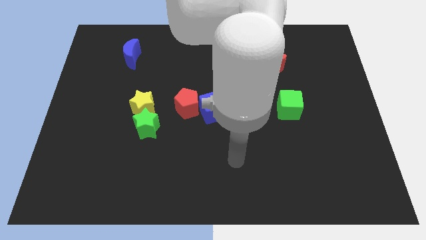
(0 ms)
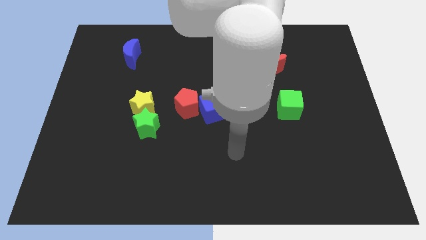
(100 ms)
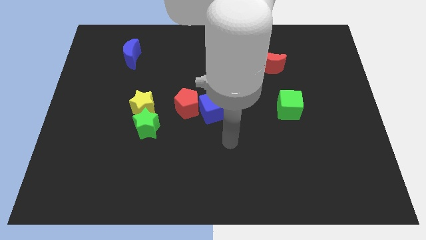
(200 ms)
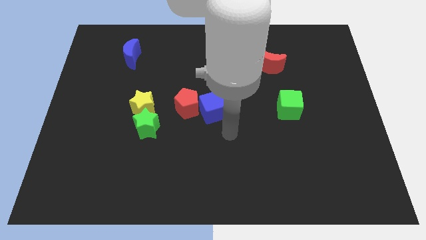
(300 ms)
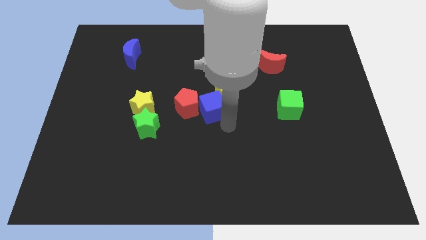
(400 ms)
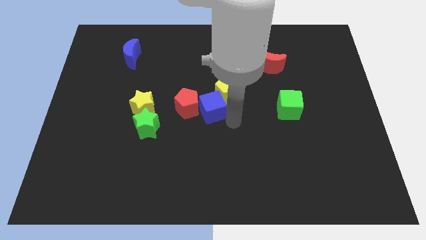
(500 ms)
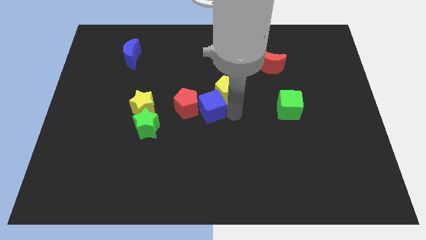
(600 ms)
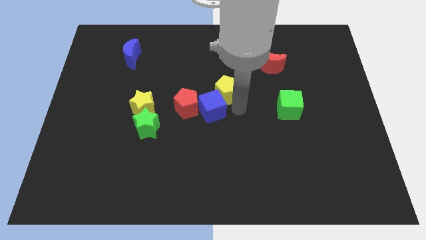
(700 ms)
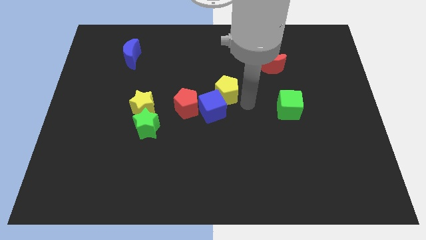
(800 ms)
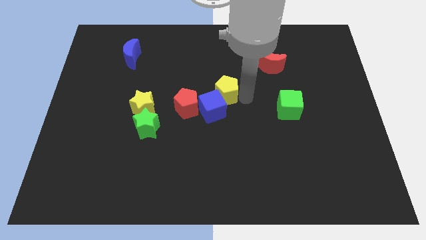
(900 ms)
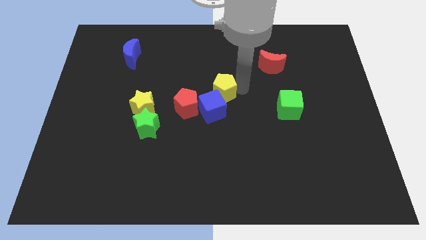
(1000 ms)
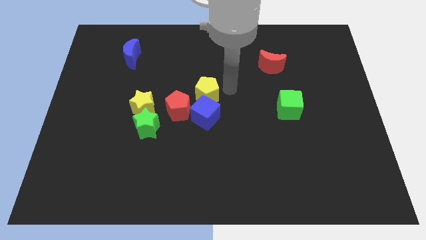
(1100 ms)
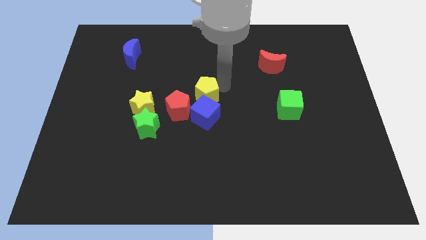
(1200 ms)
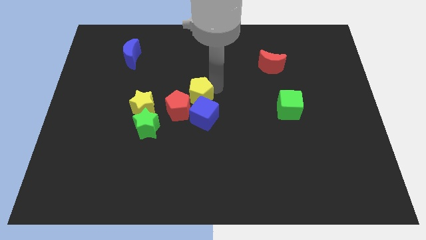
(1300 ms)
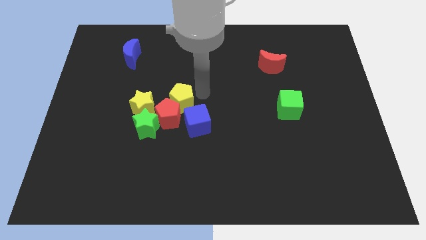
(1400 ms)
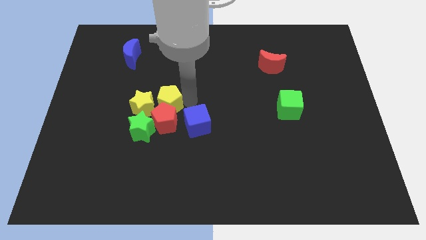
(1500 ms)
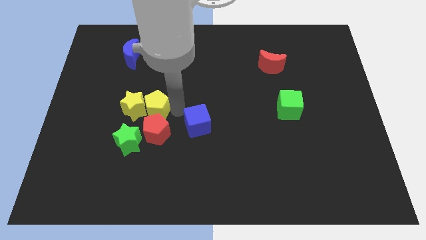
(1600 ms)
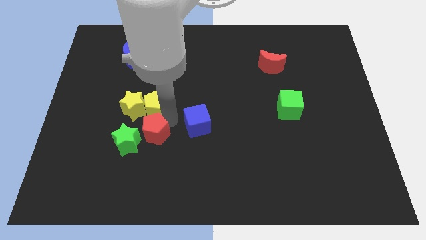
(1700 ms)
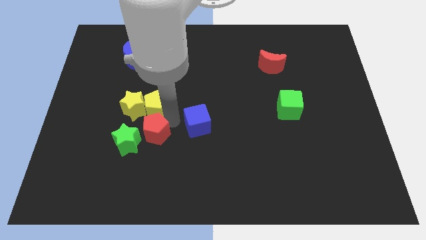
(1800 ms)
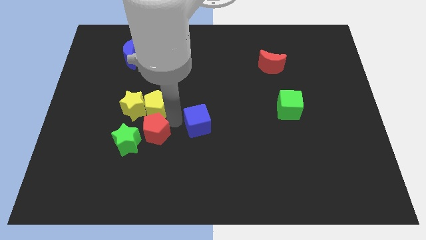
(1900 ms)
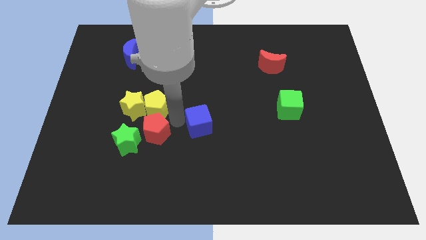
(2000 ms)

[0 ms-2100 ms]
pull the blue cube apart from the yellow pentagon and red pentagon

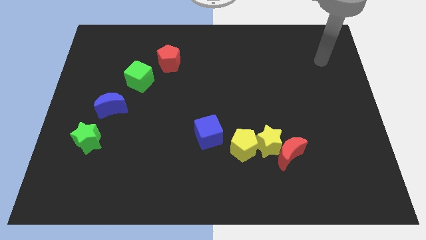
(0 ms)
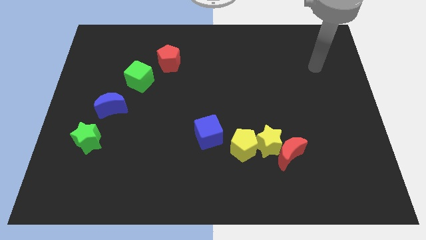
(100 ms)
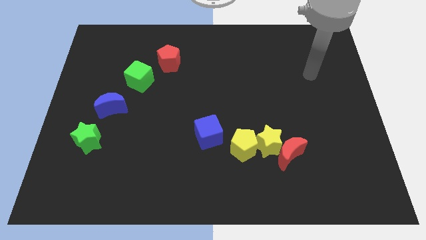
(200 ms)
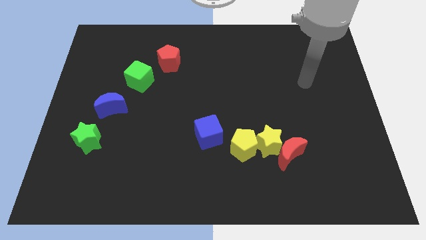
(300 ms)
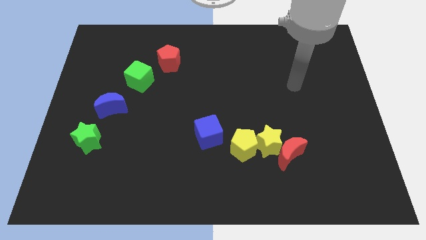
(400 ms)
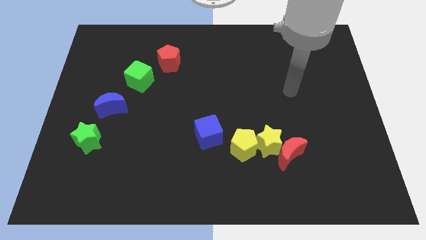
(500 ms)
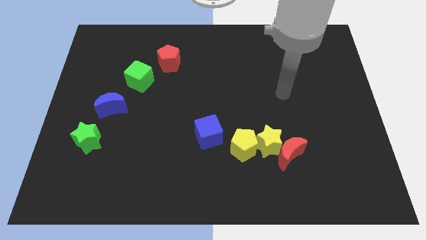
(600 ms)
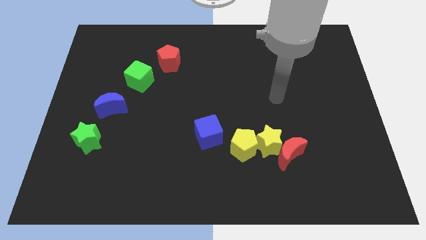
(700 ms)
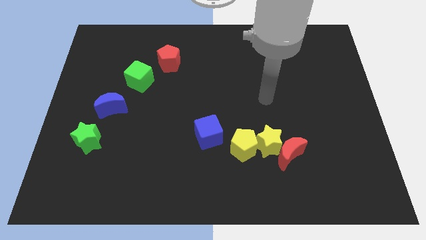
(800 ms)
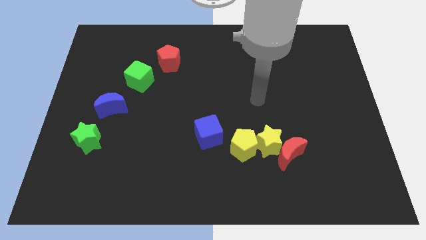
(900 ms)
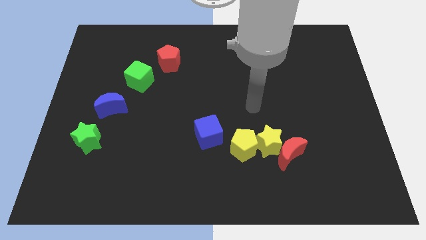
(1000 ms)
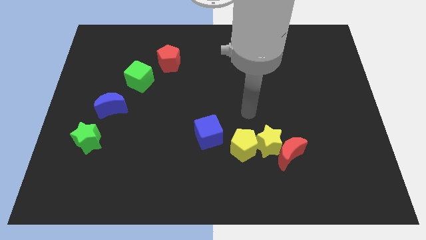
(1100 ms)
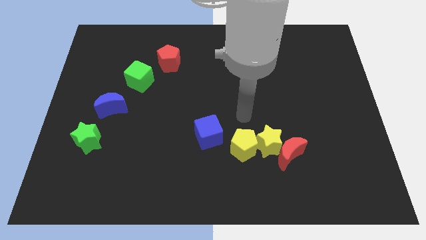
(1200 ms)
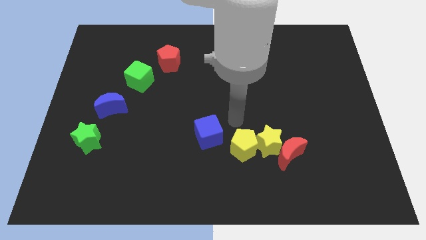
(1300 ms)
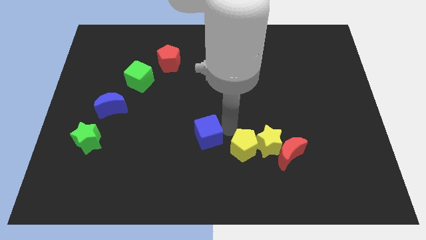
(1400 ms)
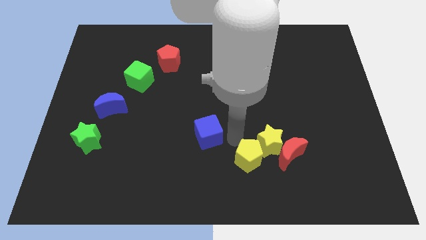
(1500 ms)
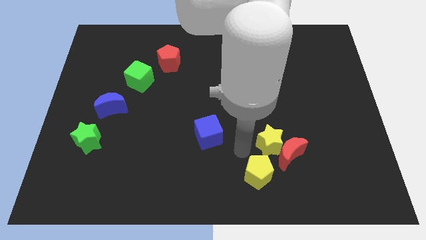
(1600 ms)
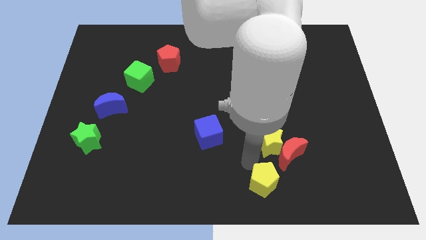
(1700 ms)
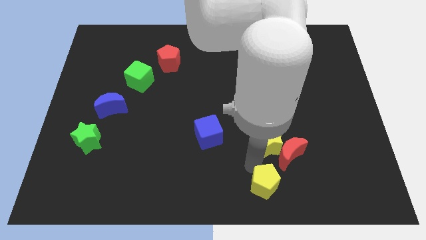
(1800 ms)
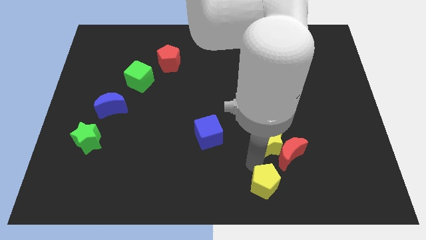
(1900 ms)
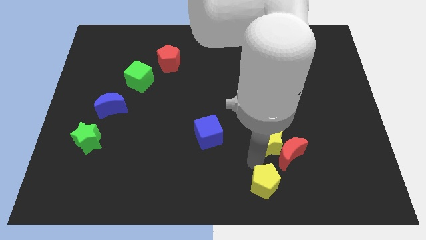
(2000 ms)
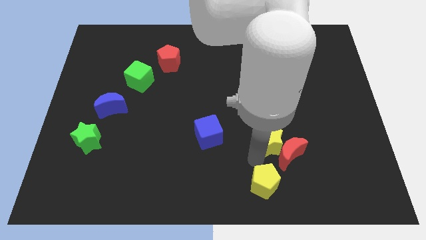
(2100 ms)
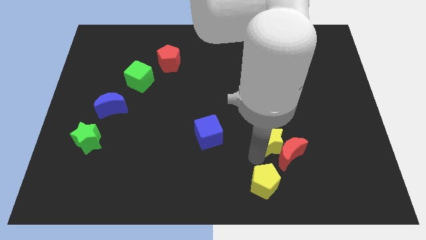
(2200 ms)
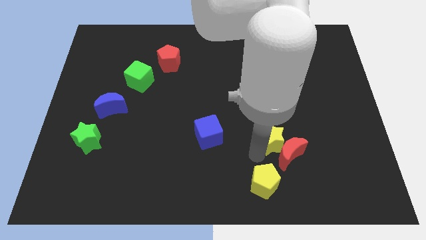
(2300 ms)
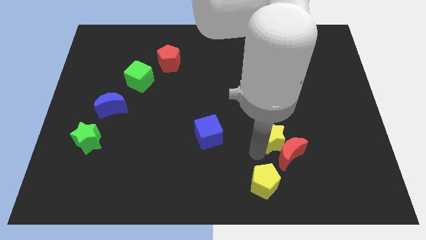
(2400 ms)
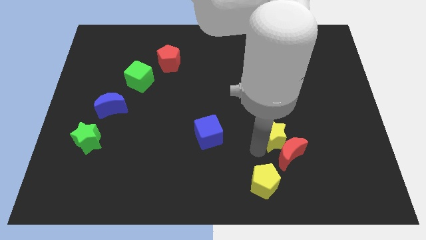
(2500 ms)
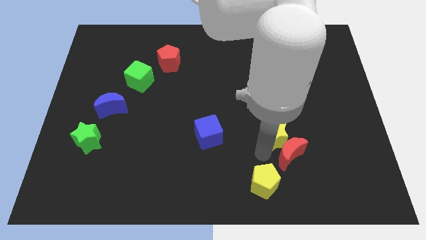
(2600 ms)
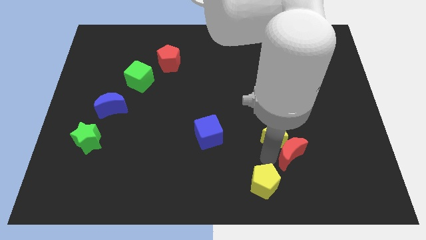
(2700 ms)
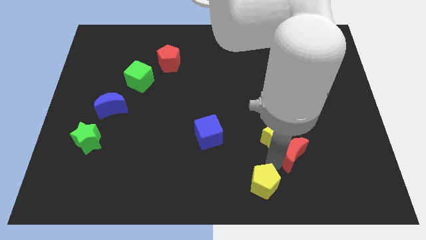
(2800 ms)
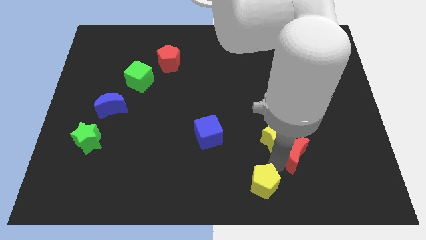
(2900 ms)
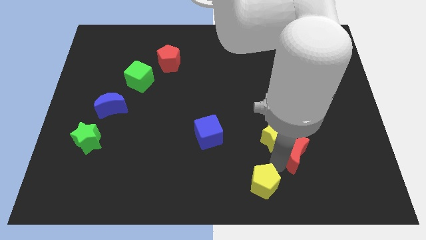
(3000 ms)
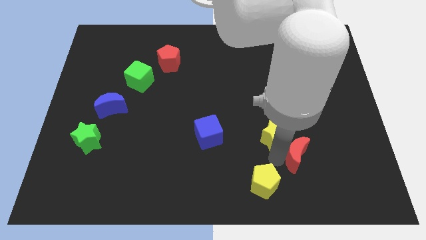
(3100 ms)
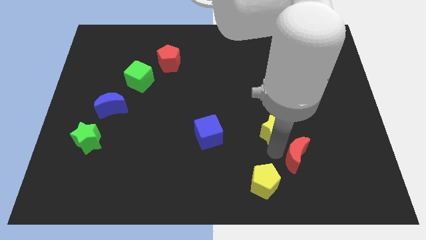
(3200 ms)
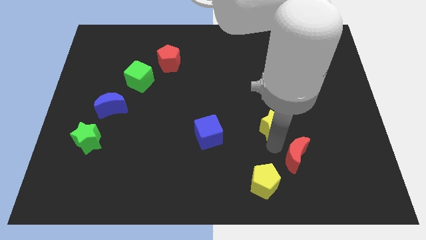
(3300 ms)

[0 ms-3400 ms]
pull the yellow star apart from the red moon and yellow pentagon

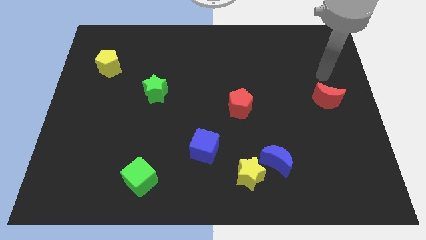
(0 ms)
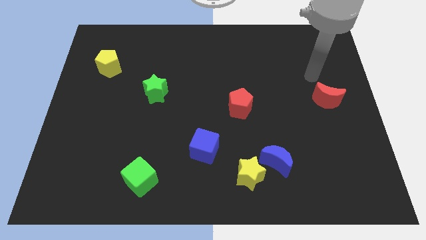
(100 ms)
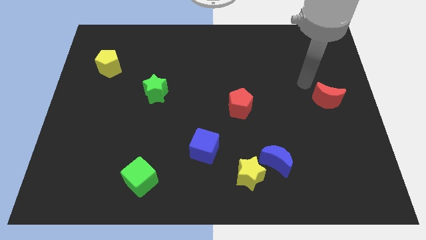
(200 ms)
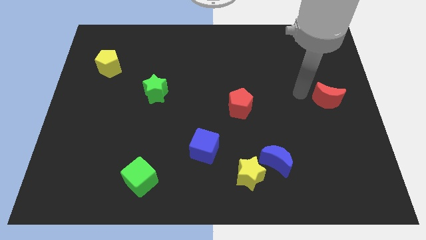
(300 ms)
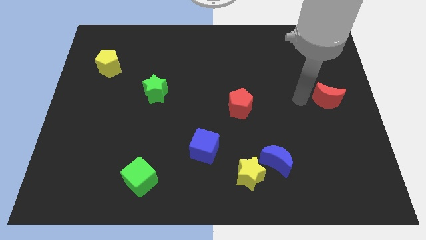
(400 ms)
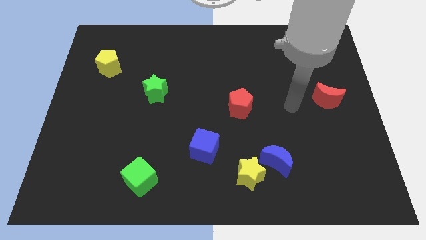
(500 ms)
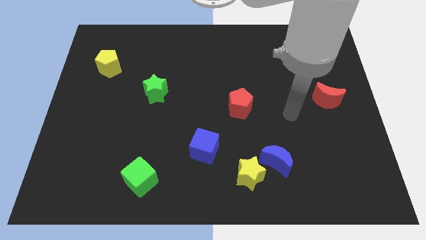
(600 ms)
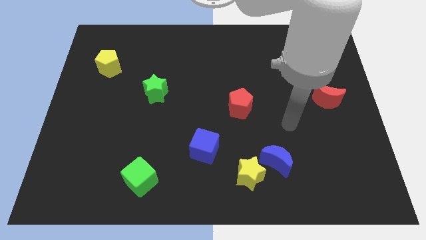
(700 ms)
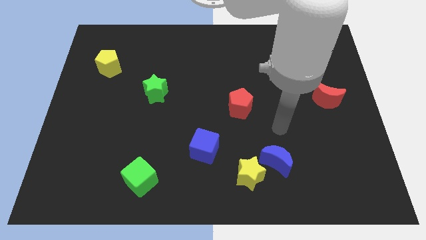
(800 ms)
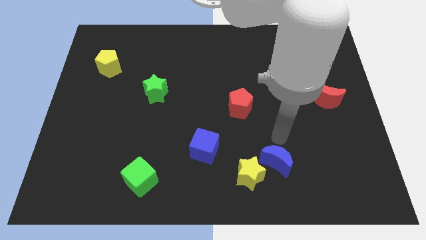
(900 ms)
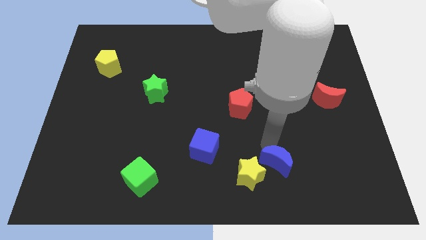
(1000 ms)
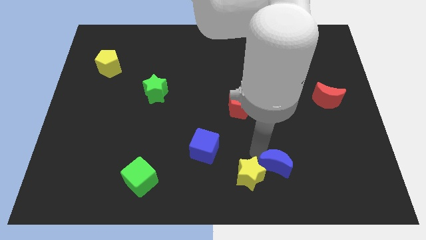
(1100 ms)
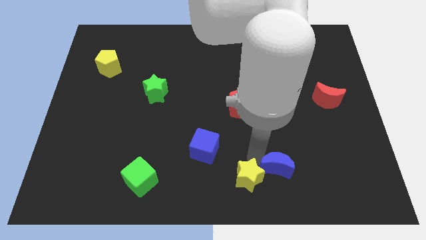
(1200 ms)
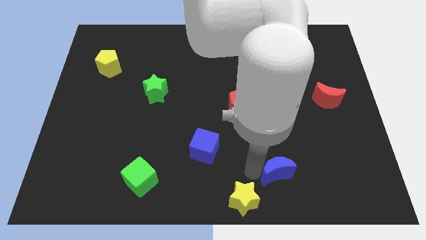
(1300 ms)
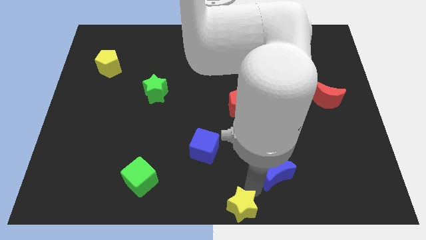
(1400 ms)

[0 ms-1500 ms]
separate the blue moon from the yellow star

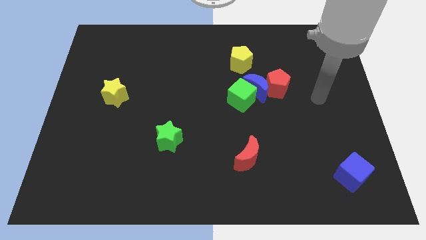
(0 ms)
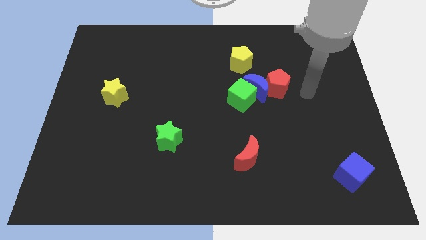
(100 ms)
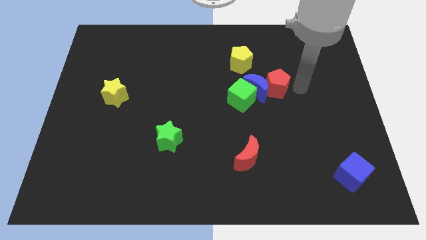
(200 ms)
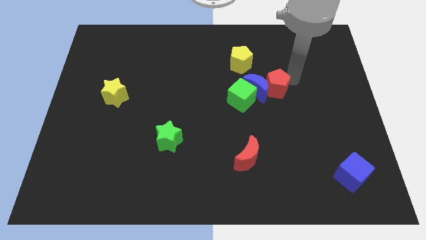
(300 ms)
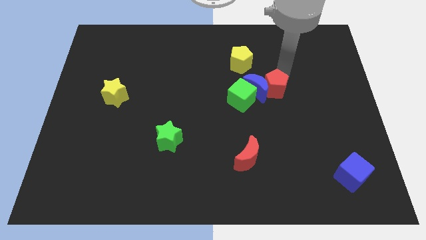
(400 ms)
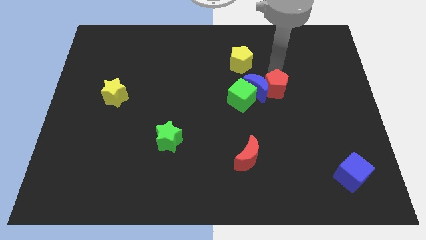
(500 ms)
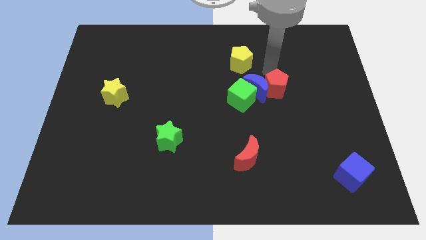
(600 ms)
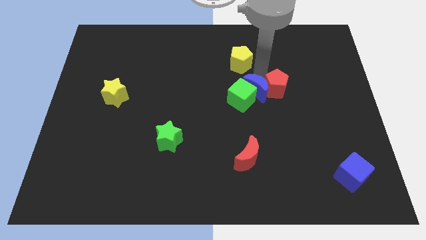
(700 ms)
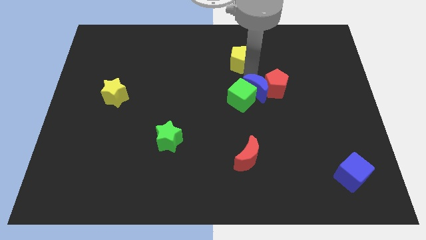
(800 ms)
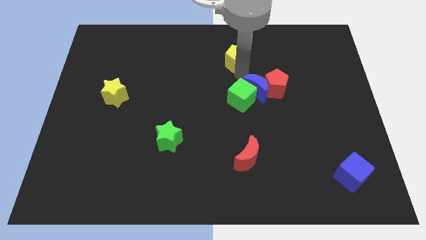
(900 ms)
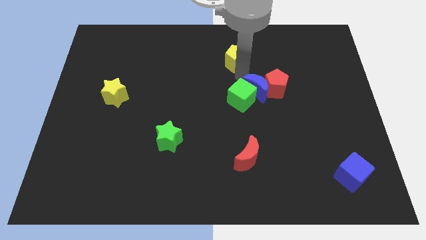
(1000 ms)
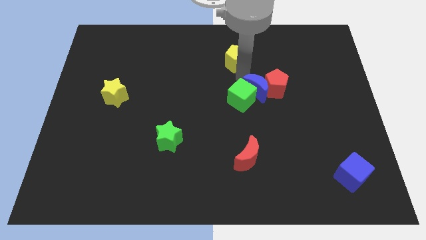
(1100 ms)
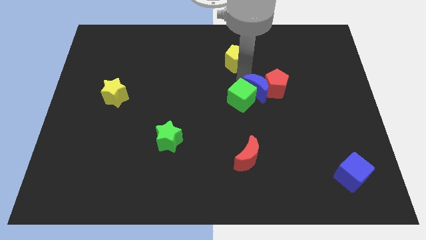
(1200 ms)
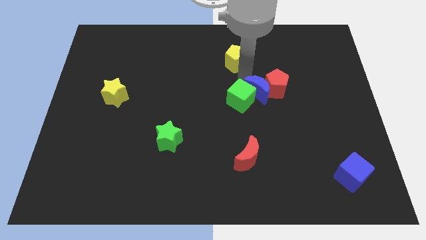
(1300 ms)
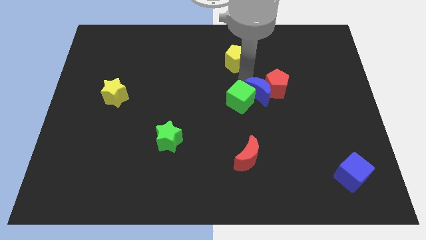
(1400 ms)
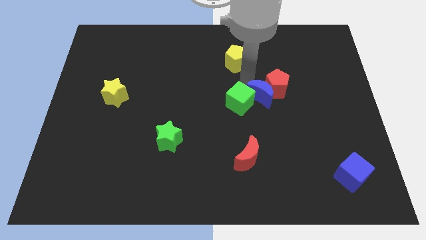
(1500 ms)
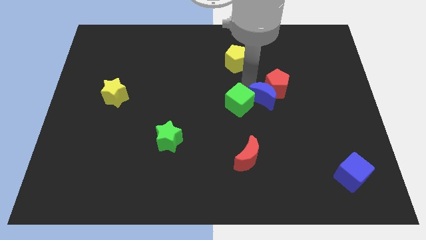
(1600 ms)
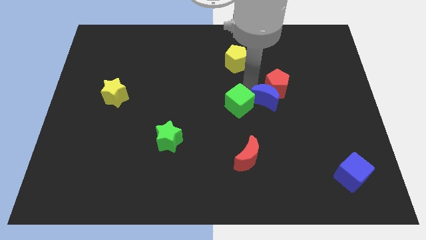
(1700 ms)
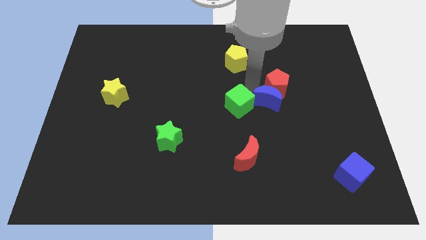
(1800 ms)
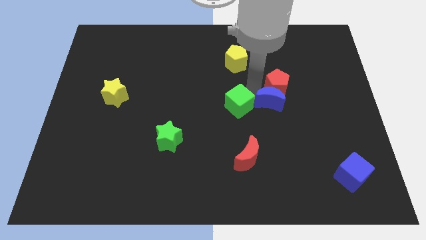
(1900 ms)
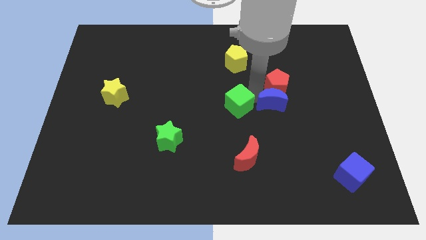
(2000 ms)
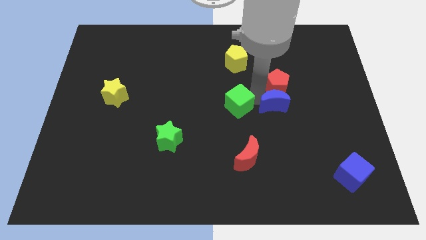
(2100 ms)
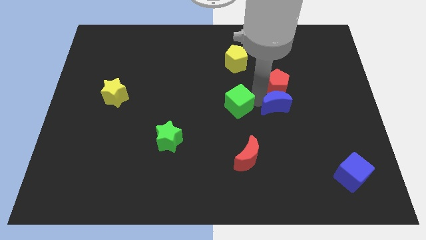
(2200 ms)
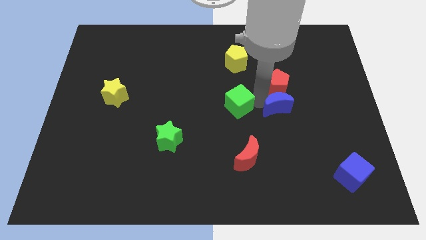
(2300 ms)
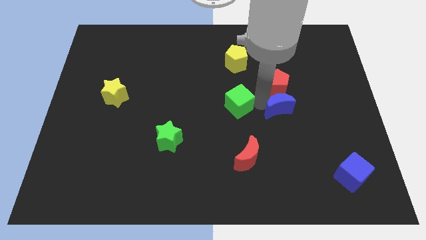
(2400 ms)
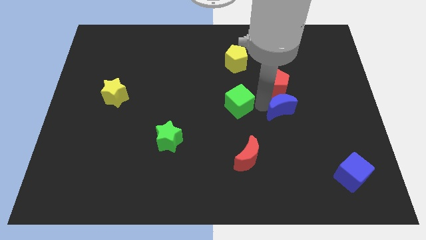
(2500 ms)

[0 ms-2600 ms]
pull the blue moon apart from the green cube, red pentagon, and yellow pentagon
